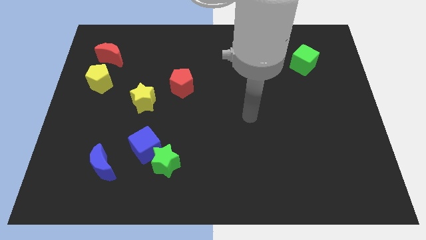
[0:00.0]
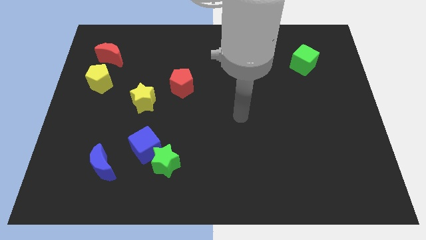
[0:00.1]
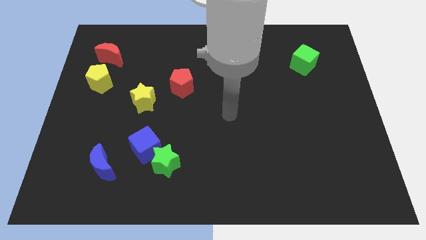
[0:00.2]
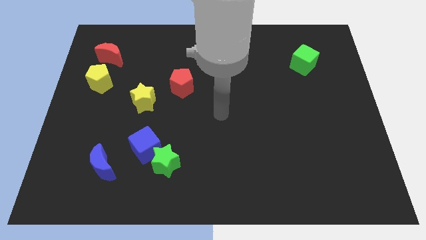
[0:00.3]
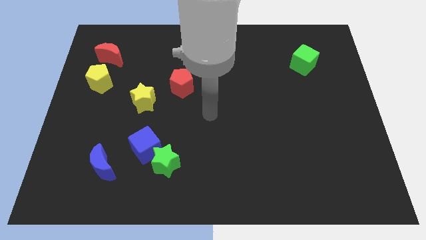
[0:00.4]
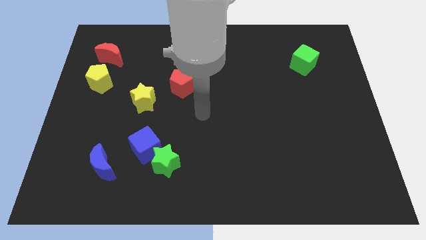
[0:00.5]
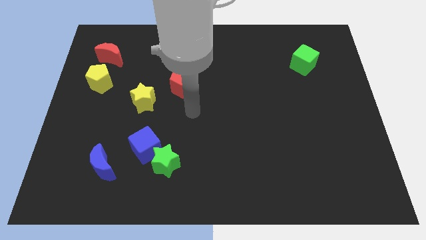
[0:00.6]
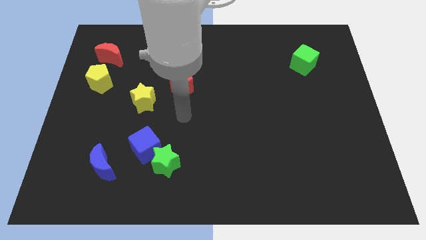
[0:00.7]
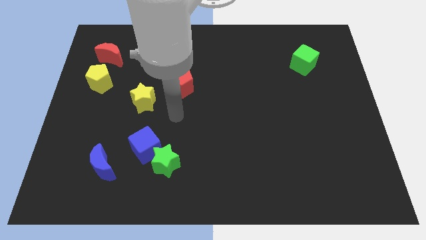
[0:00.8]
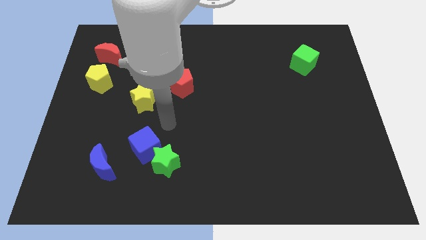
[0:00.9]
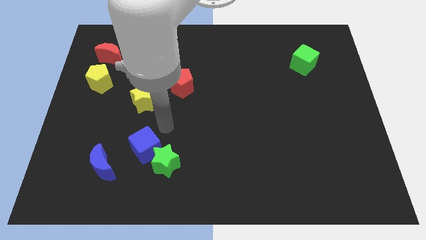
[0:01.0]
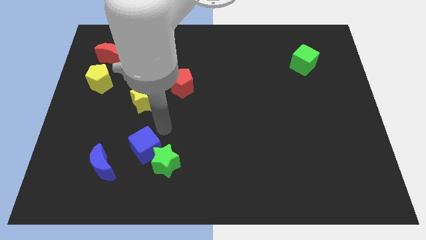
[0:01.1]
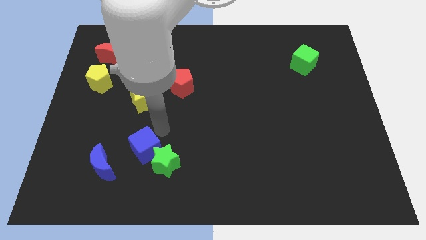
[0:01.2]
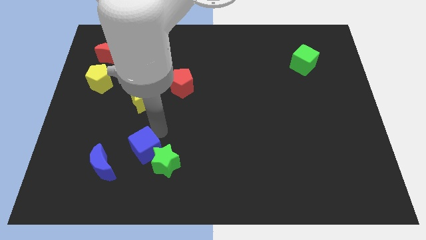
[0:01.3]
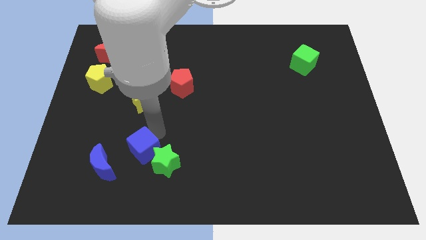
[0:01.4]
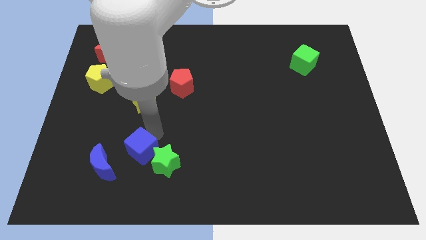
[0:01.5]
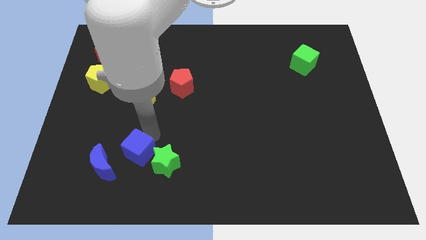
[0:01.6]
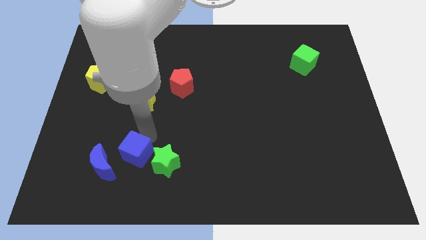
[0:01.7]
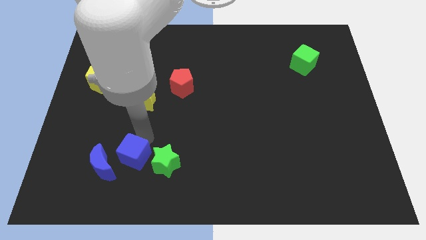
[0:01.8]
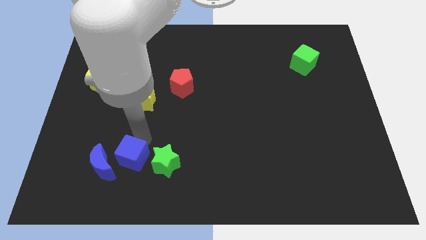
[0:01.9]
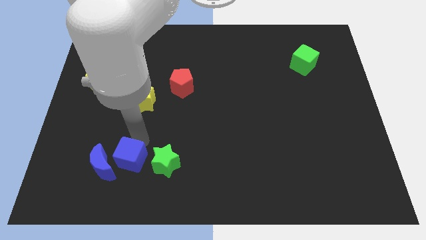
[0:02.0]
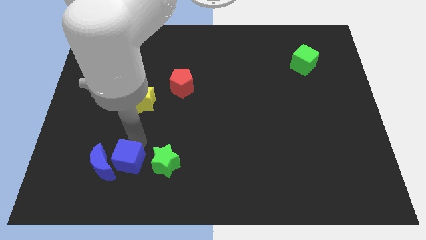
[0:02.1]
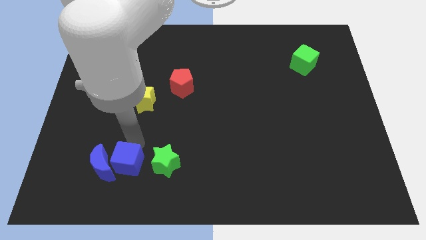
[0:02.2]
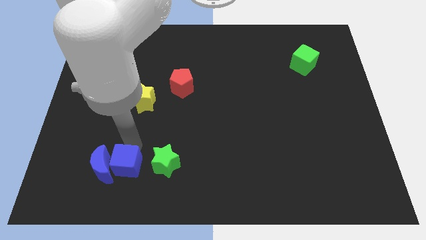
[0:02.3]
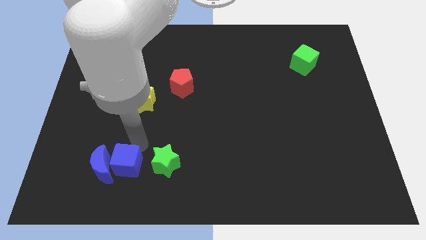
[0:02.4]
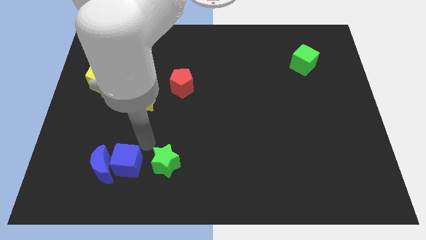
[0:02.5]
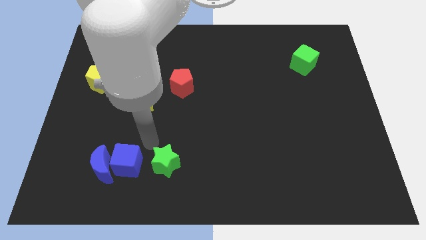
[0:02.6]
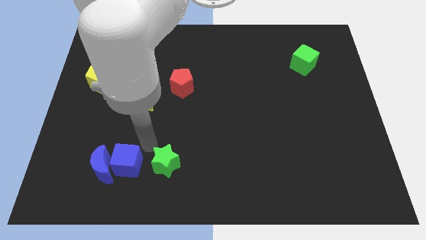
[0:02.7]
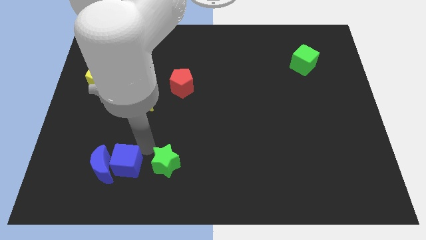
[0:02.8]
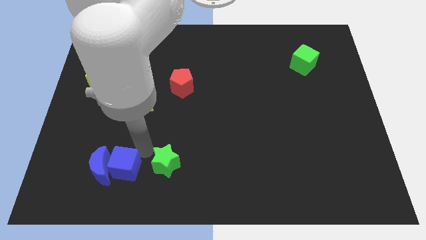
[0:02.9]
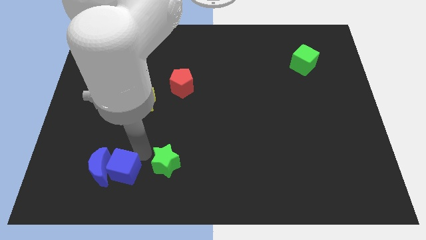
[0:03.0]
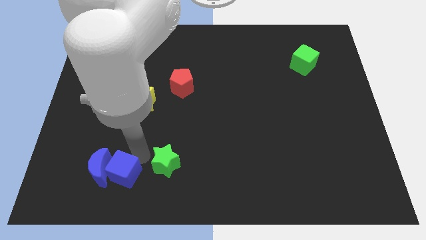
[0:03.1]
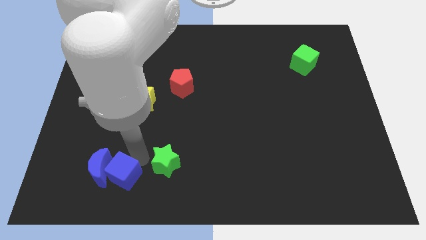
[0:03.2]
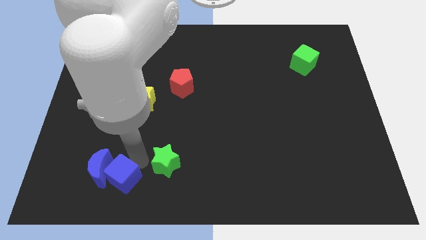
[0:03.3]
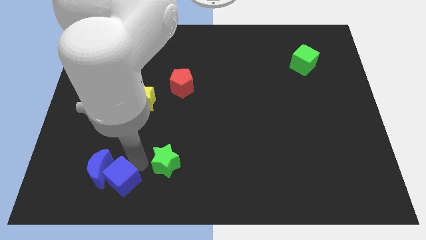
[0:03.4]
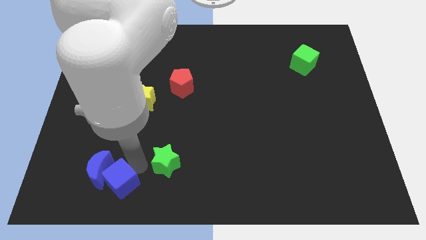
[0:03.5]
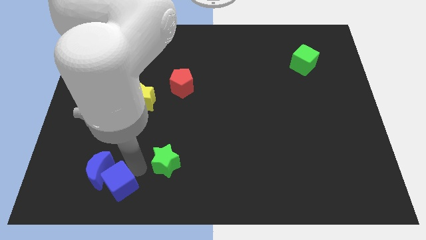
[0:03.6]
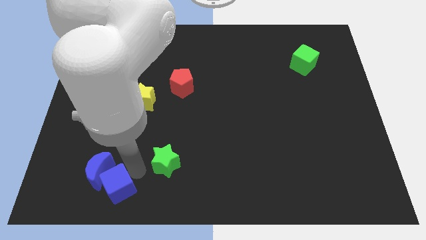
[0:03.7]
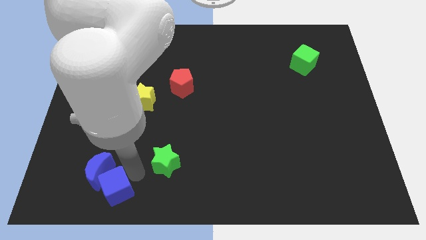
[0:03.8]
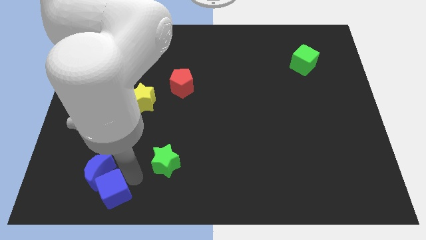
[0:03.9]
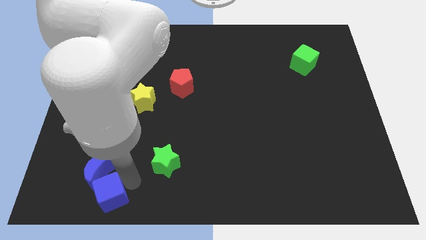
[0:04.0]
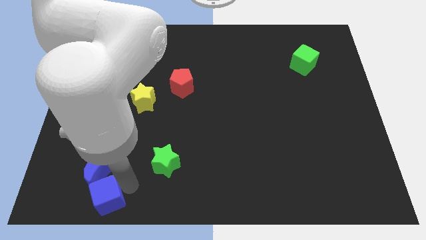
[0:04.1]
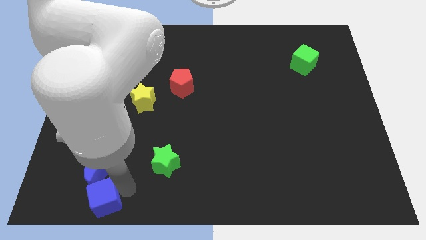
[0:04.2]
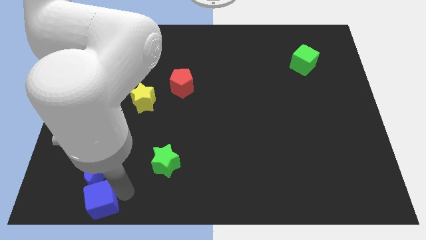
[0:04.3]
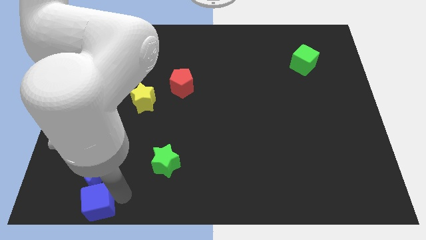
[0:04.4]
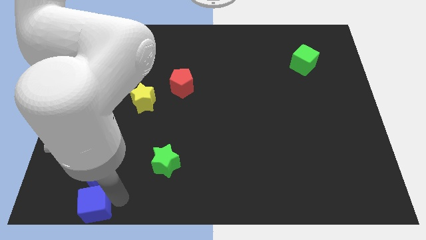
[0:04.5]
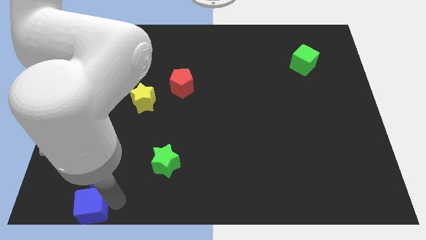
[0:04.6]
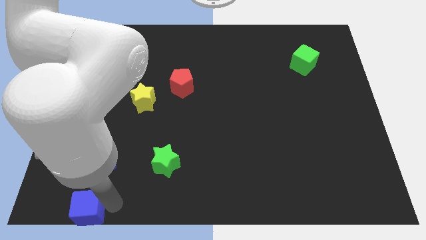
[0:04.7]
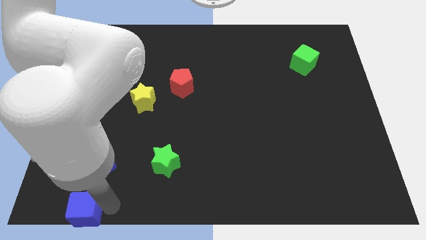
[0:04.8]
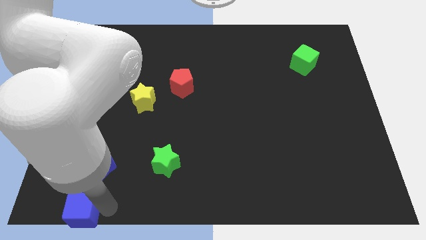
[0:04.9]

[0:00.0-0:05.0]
slide the blue cube to the bottom left
